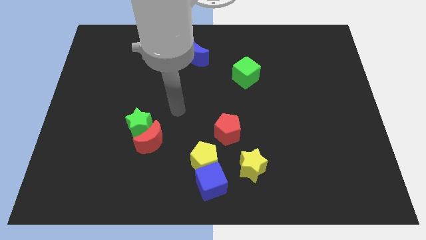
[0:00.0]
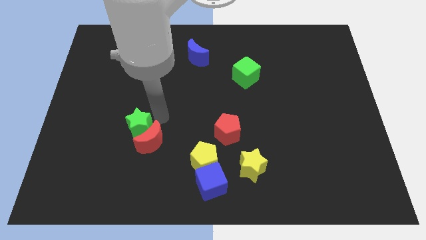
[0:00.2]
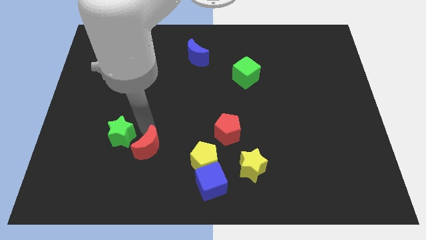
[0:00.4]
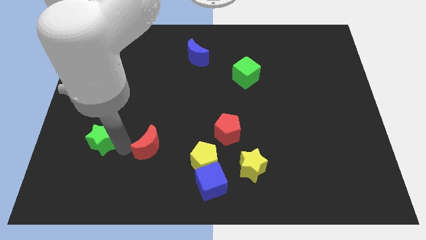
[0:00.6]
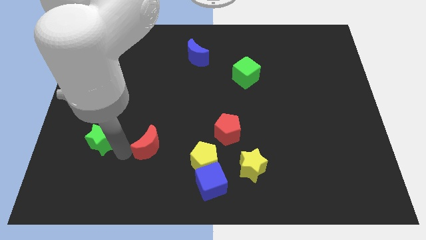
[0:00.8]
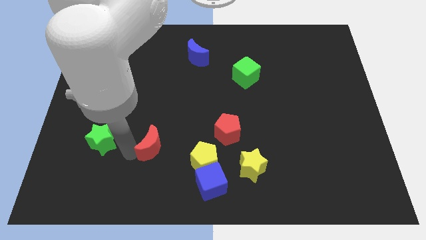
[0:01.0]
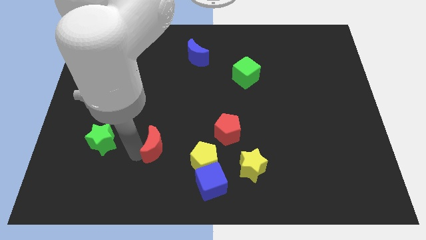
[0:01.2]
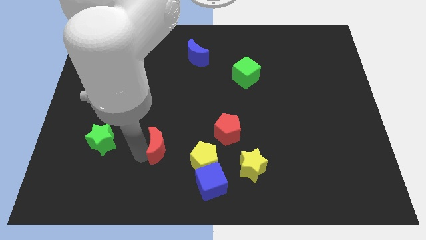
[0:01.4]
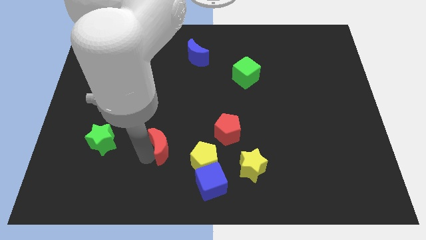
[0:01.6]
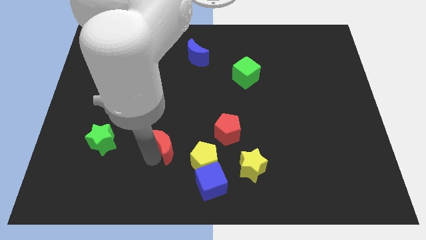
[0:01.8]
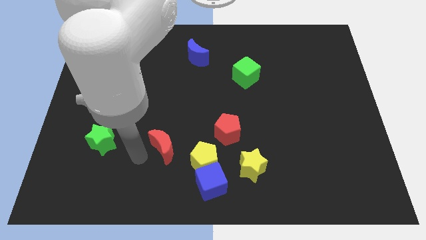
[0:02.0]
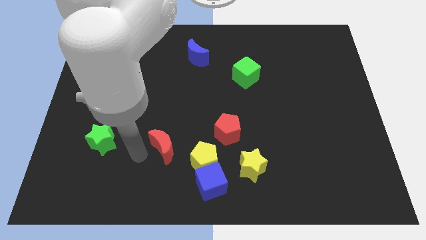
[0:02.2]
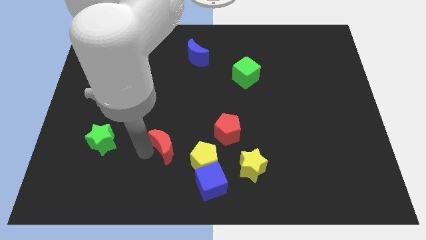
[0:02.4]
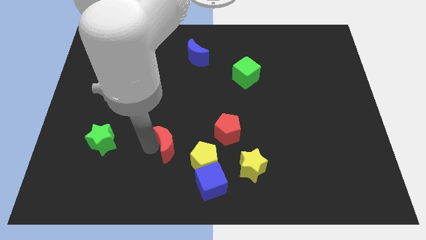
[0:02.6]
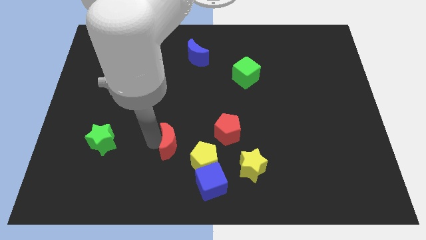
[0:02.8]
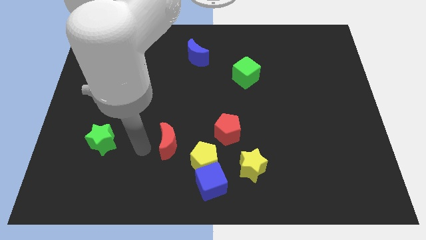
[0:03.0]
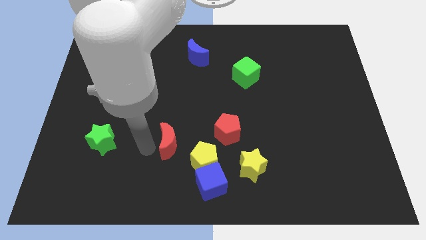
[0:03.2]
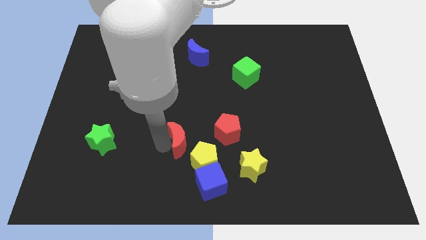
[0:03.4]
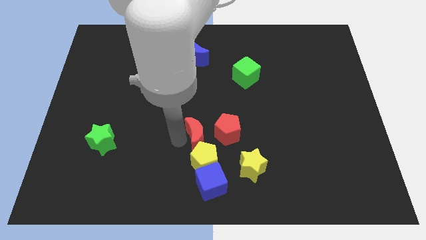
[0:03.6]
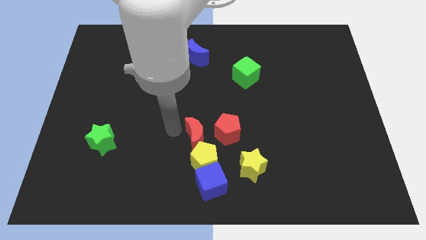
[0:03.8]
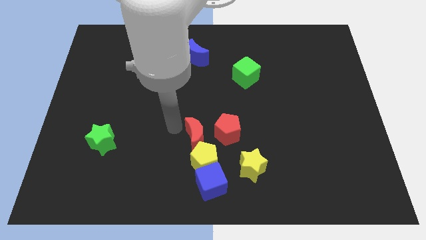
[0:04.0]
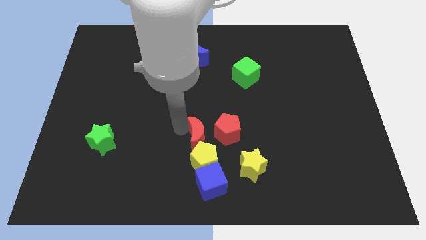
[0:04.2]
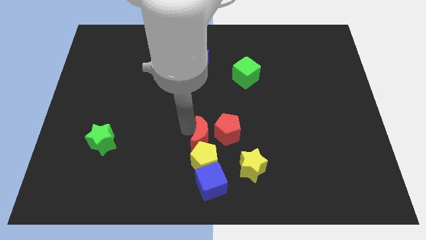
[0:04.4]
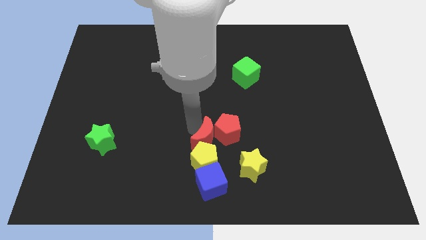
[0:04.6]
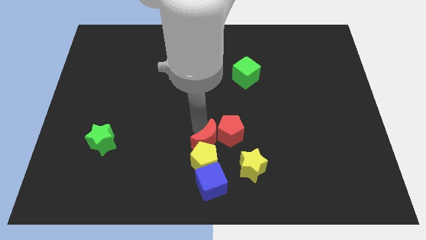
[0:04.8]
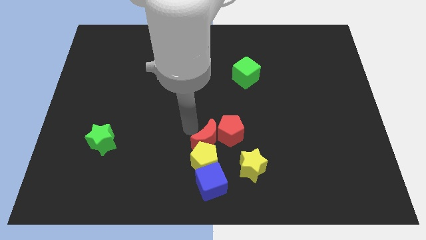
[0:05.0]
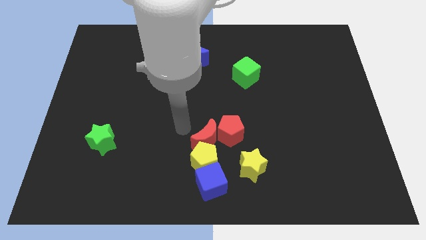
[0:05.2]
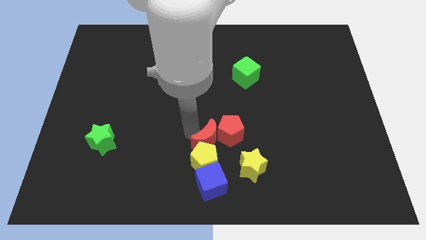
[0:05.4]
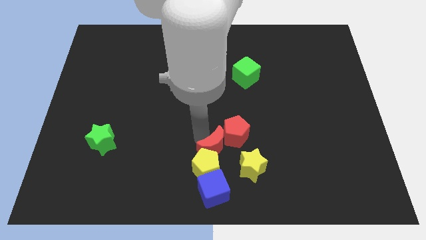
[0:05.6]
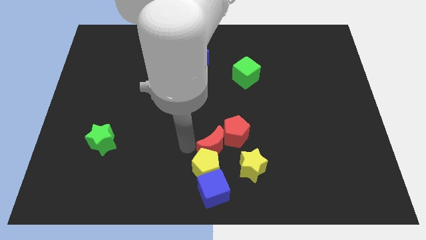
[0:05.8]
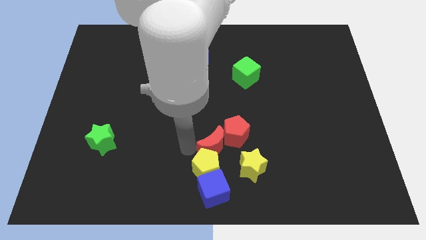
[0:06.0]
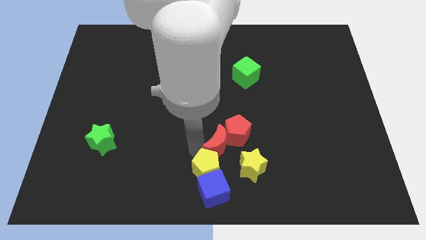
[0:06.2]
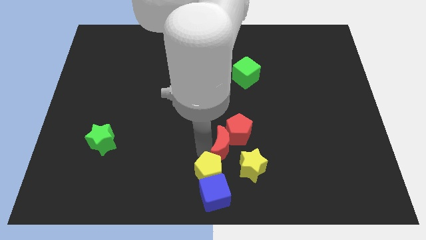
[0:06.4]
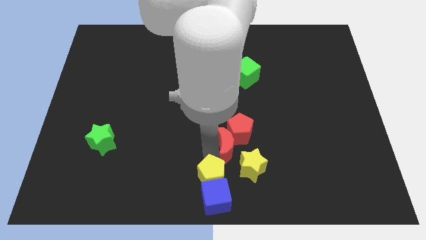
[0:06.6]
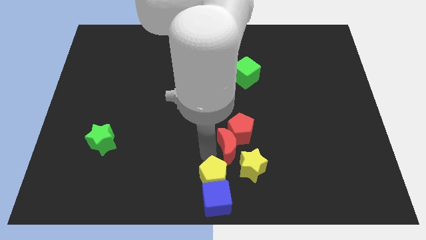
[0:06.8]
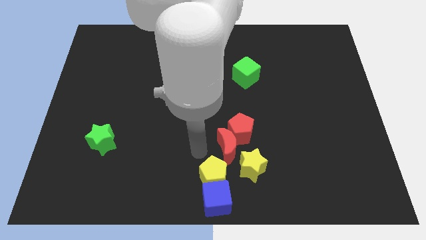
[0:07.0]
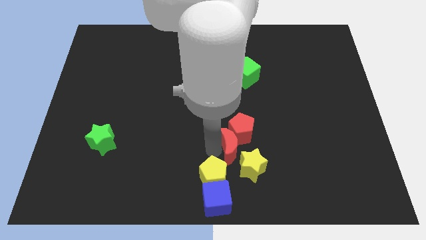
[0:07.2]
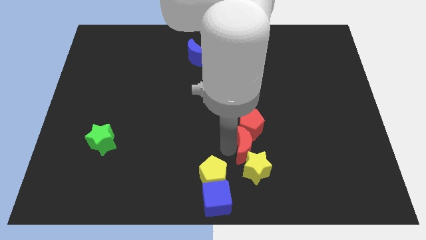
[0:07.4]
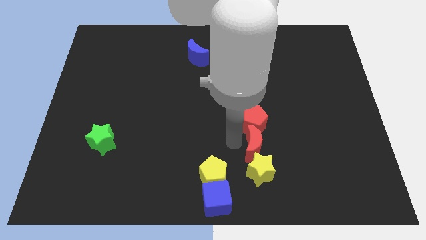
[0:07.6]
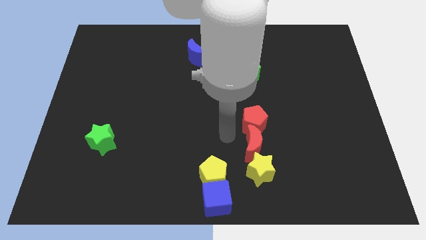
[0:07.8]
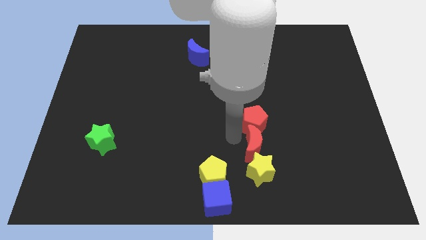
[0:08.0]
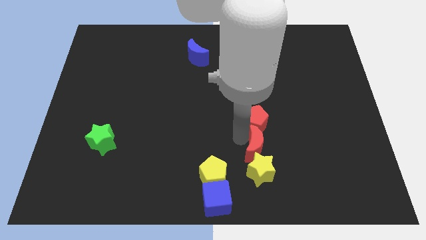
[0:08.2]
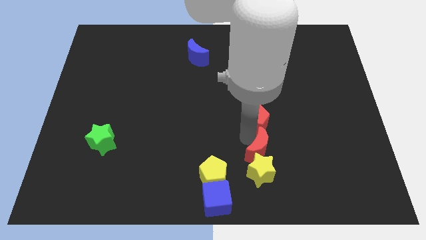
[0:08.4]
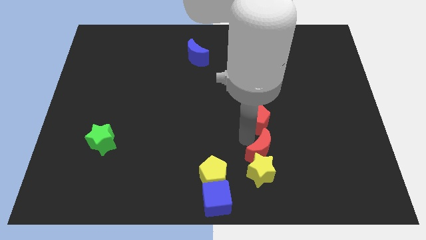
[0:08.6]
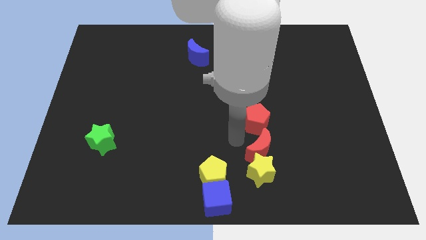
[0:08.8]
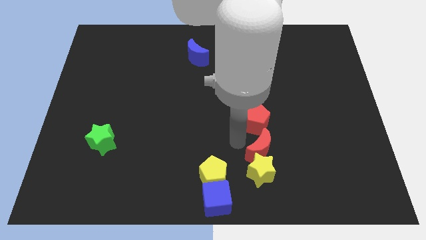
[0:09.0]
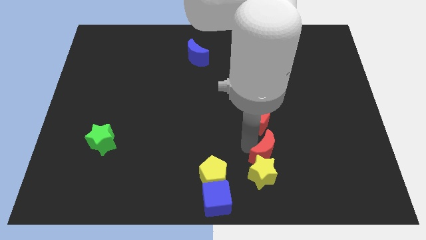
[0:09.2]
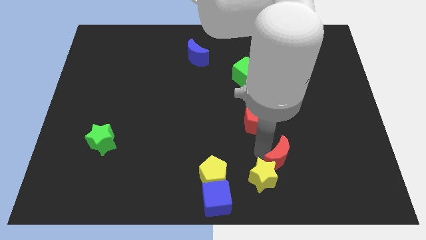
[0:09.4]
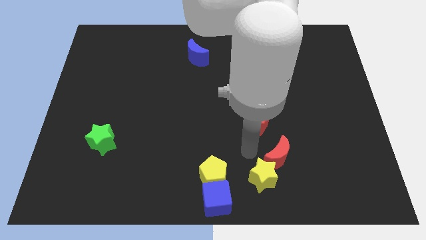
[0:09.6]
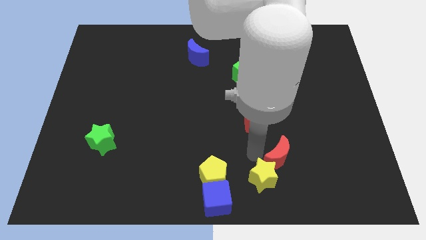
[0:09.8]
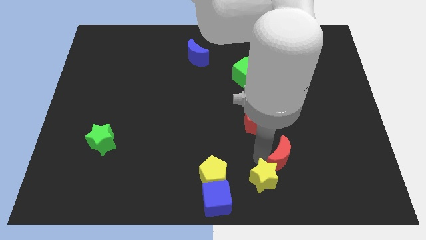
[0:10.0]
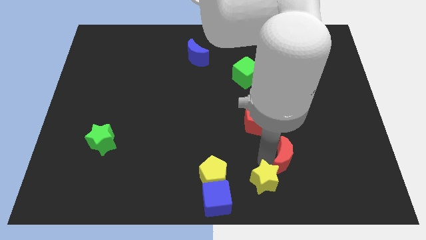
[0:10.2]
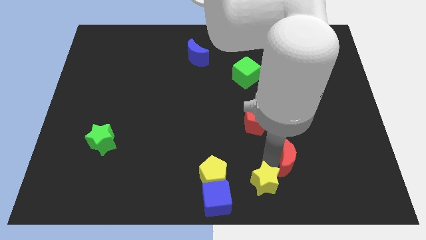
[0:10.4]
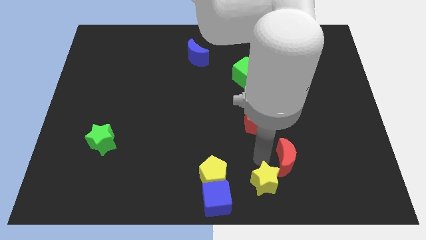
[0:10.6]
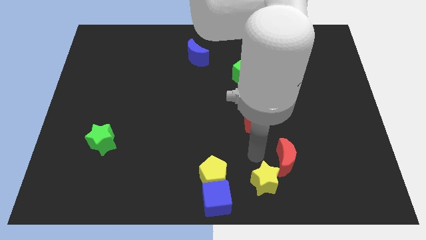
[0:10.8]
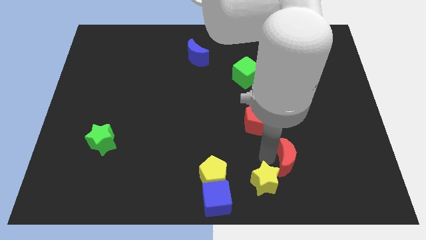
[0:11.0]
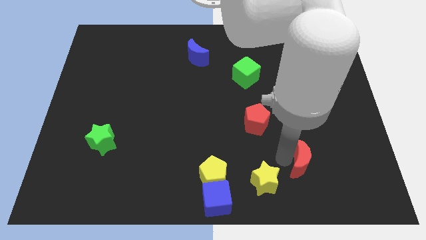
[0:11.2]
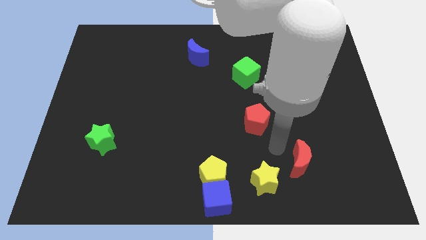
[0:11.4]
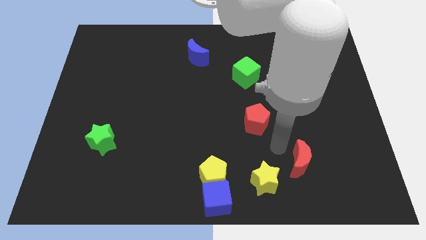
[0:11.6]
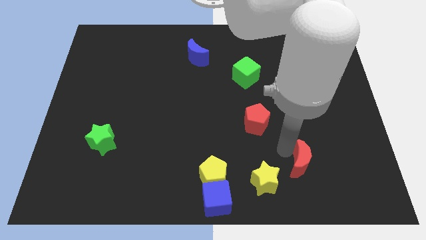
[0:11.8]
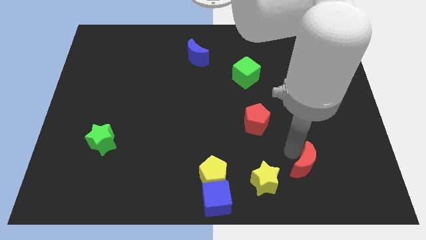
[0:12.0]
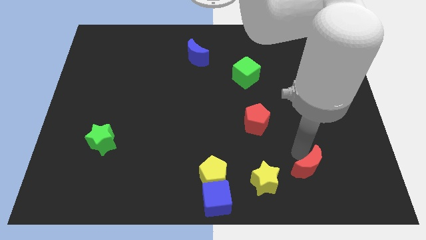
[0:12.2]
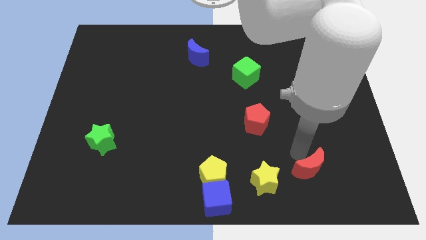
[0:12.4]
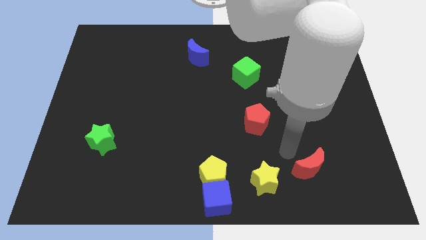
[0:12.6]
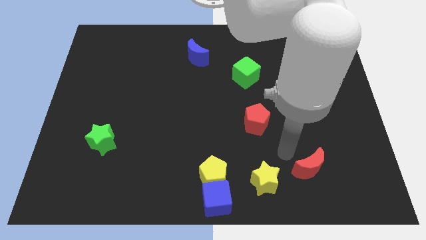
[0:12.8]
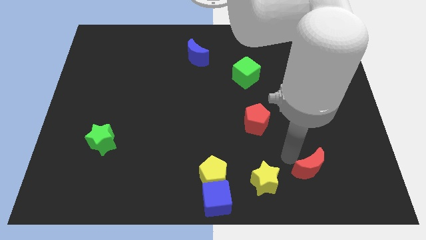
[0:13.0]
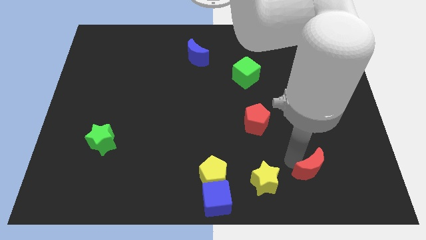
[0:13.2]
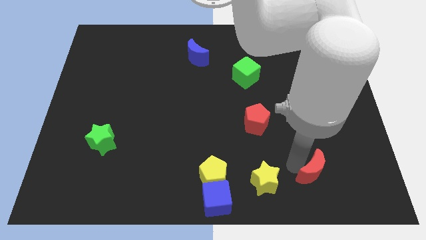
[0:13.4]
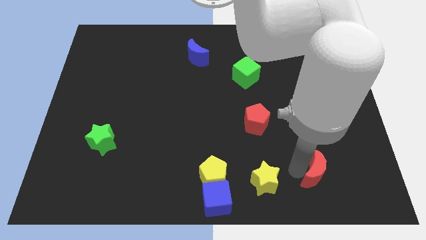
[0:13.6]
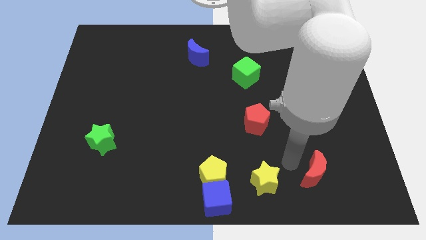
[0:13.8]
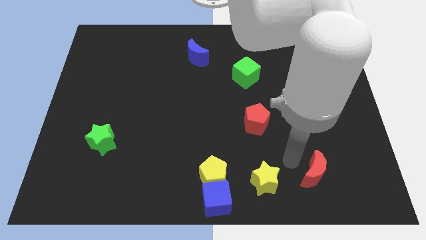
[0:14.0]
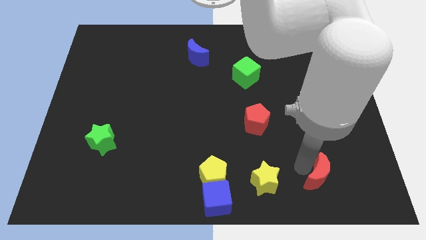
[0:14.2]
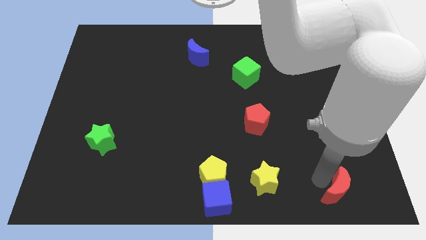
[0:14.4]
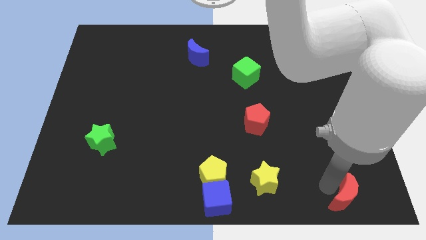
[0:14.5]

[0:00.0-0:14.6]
push the red moon to the bottom right corner
